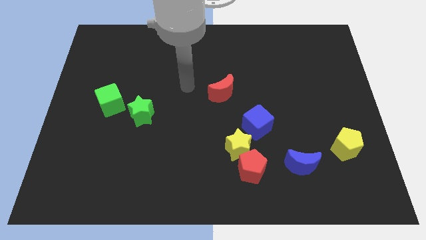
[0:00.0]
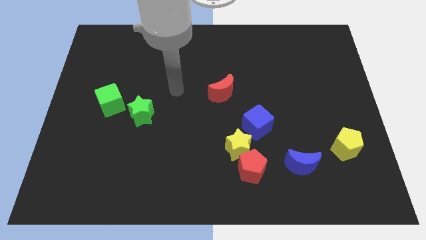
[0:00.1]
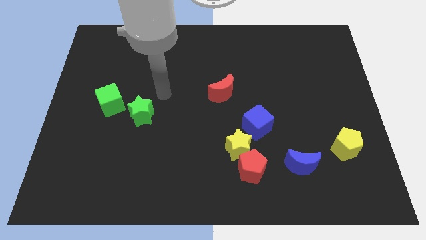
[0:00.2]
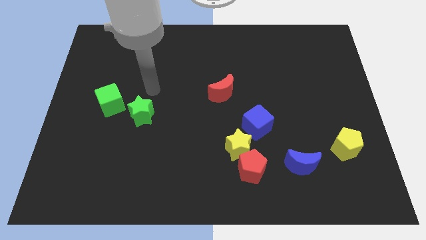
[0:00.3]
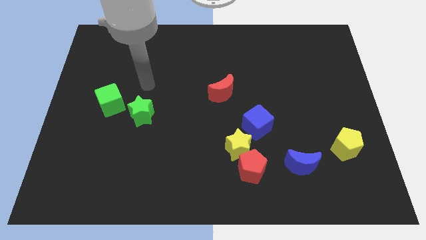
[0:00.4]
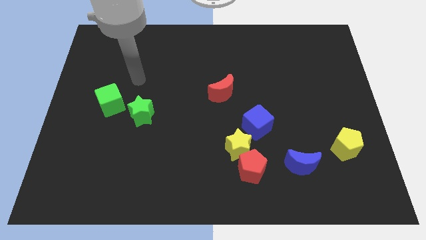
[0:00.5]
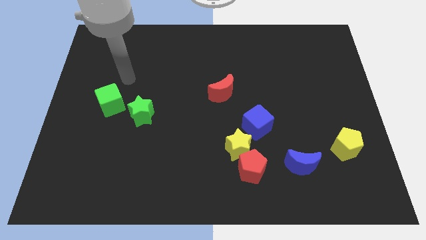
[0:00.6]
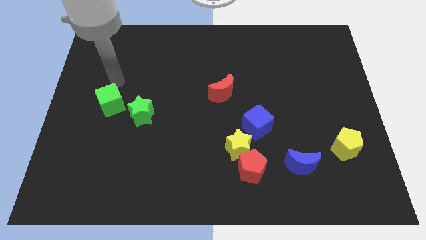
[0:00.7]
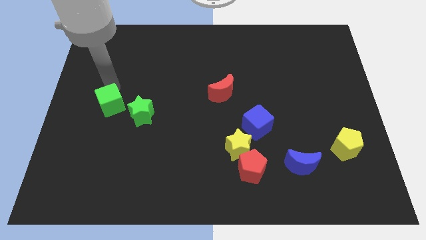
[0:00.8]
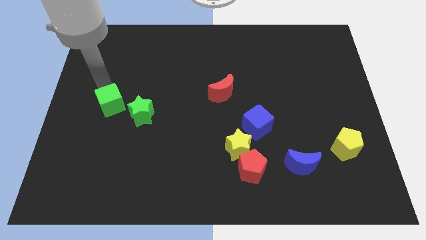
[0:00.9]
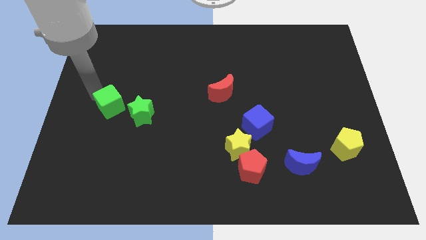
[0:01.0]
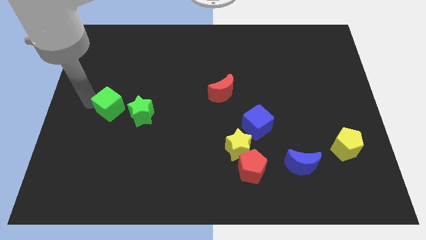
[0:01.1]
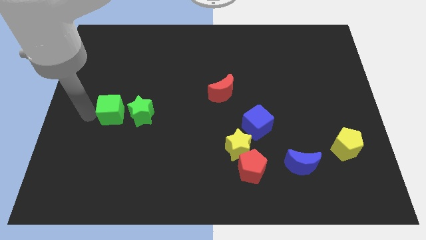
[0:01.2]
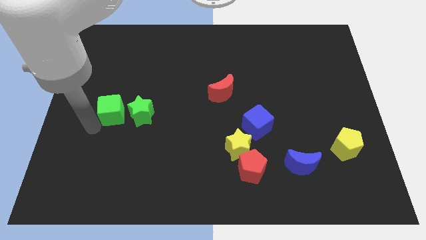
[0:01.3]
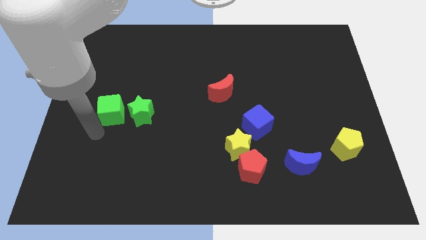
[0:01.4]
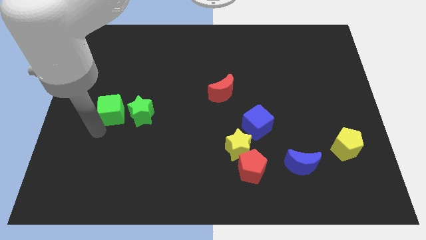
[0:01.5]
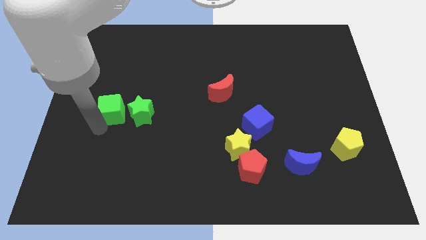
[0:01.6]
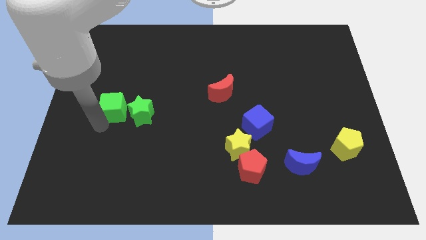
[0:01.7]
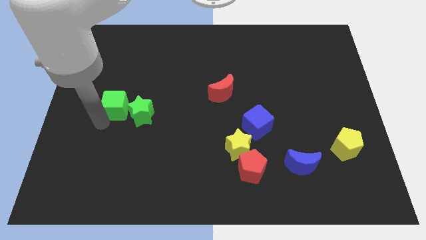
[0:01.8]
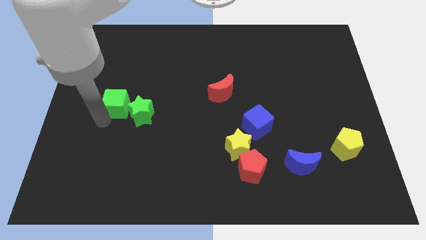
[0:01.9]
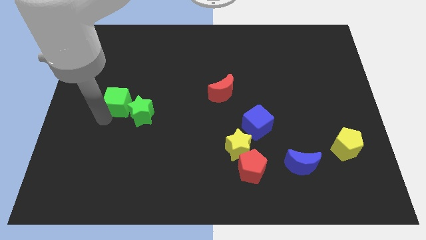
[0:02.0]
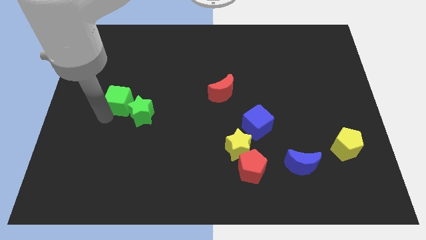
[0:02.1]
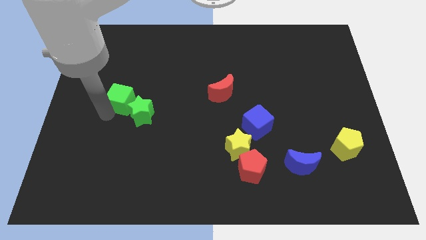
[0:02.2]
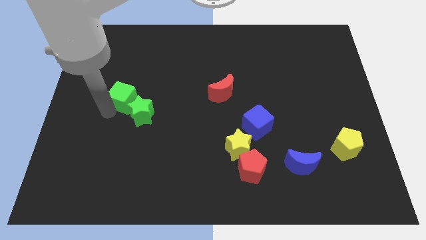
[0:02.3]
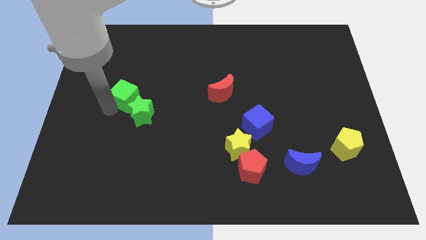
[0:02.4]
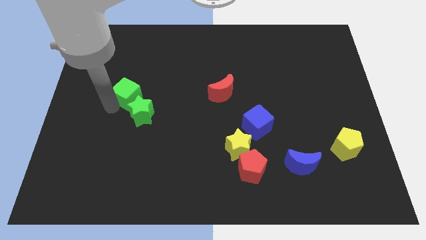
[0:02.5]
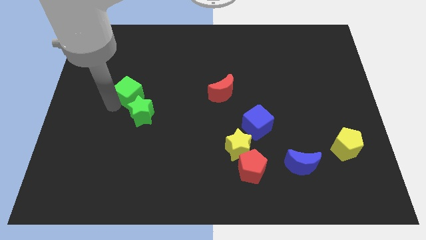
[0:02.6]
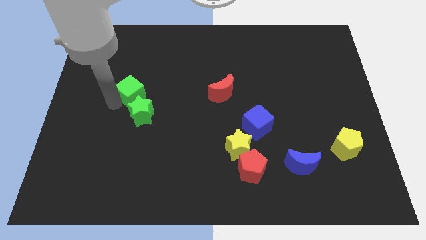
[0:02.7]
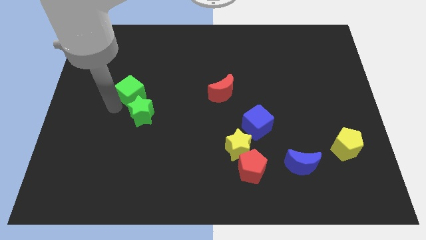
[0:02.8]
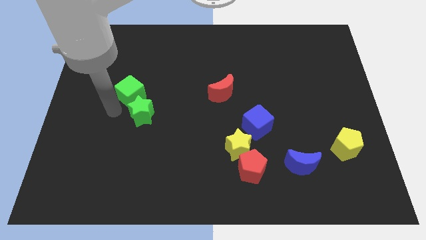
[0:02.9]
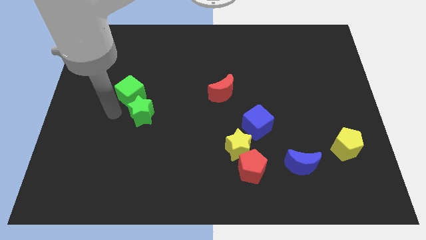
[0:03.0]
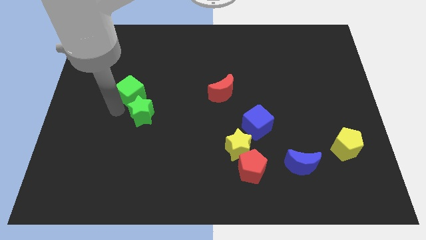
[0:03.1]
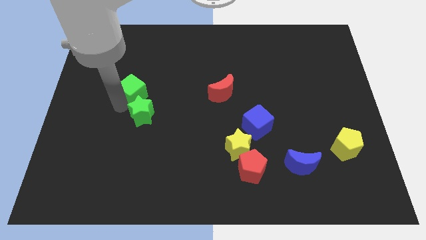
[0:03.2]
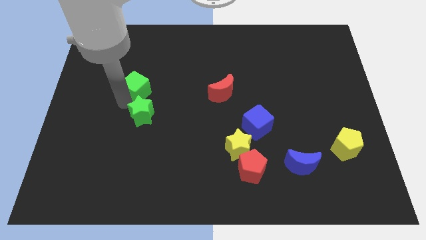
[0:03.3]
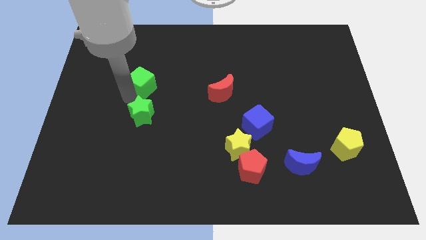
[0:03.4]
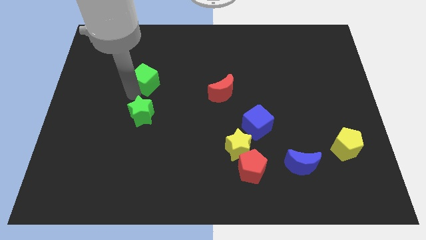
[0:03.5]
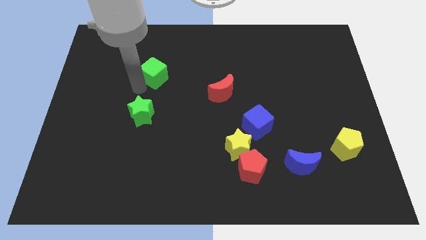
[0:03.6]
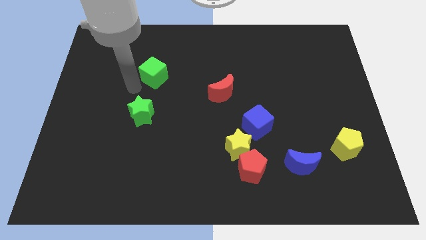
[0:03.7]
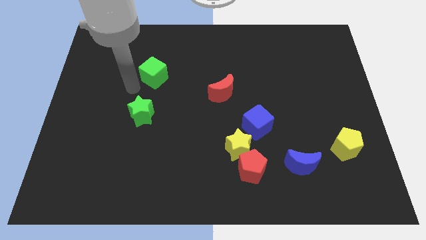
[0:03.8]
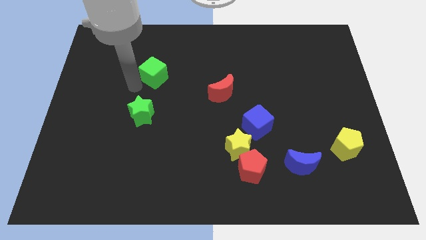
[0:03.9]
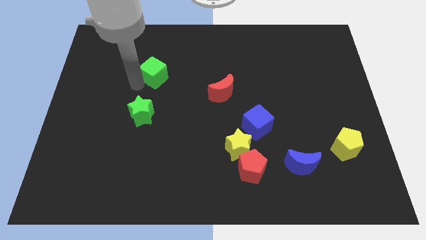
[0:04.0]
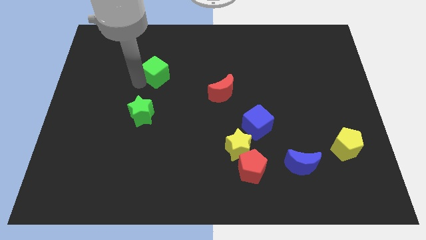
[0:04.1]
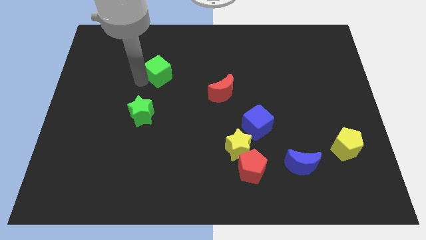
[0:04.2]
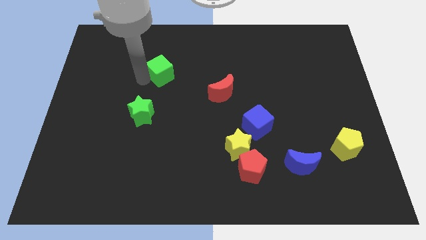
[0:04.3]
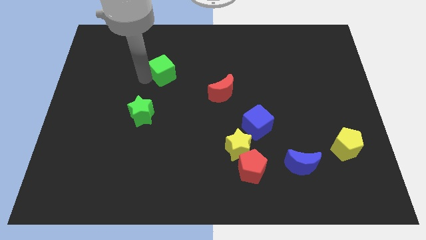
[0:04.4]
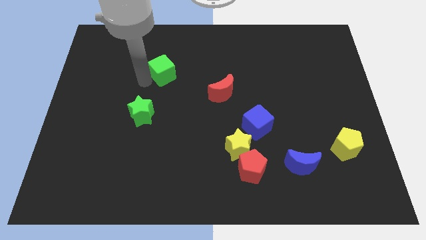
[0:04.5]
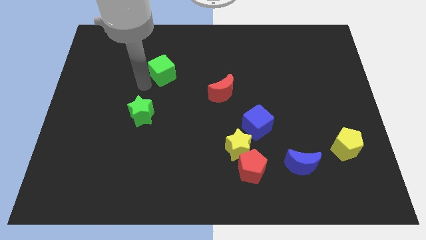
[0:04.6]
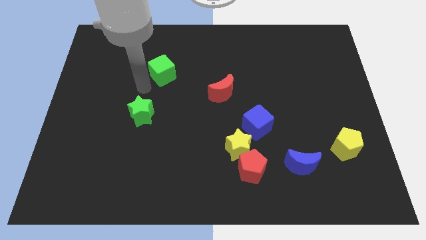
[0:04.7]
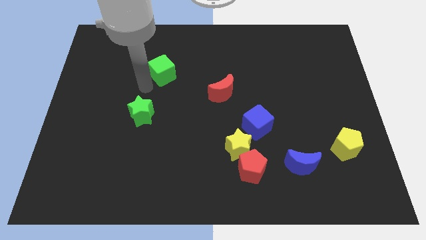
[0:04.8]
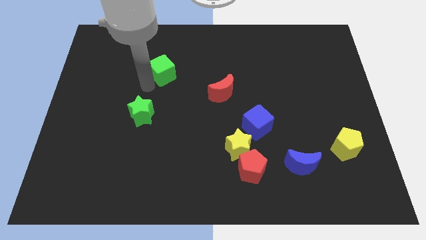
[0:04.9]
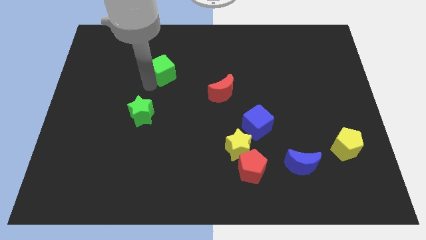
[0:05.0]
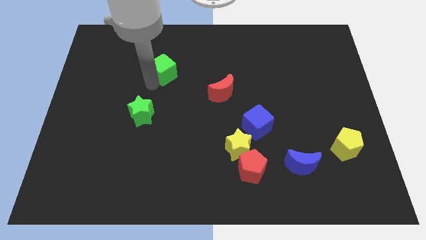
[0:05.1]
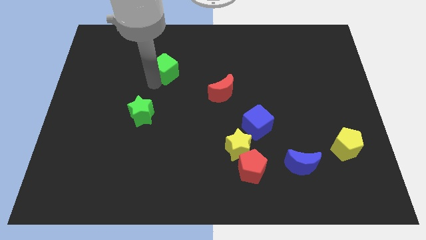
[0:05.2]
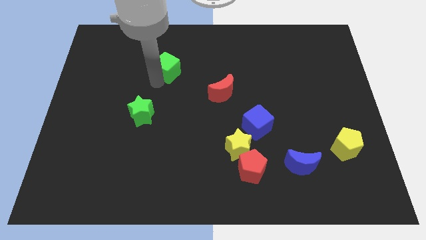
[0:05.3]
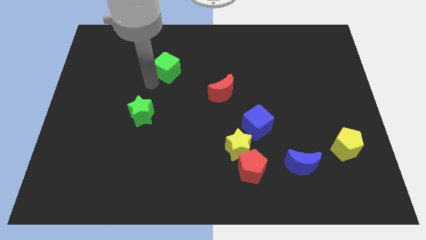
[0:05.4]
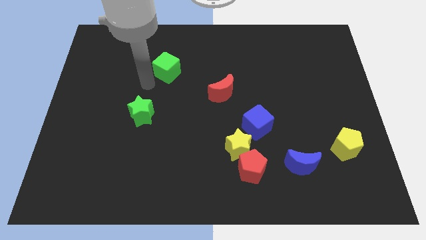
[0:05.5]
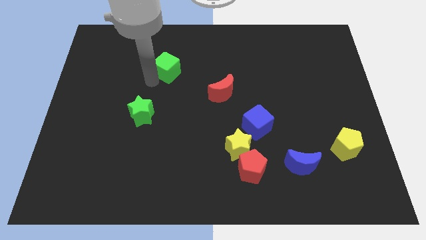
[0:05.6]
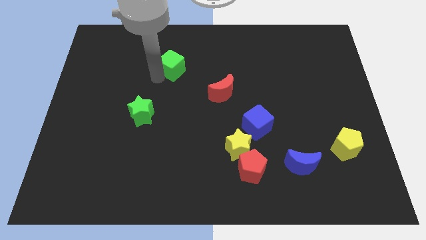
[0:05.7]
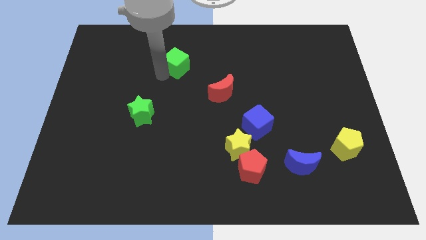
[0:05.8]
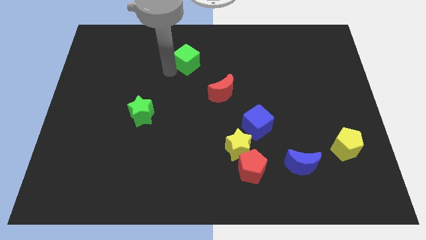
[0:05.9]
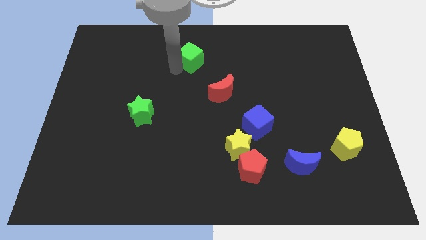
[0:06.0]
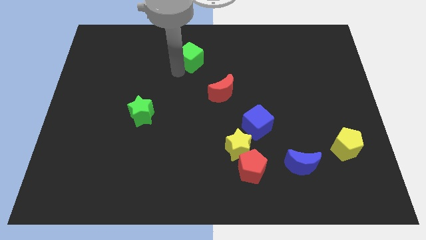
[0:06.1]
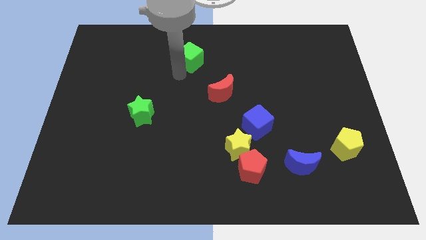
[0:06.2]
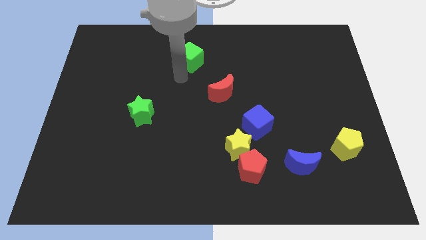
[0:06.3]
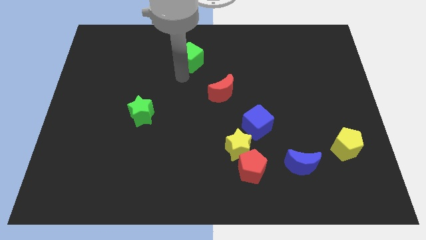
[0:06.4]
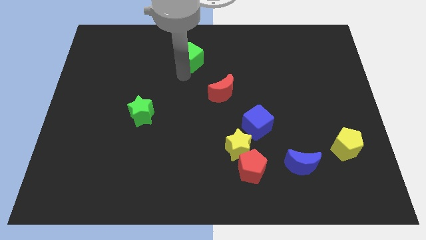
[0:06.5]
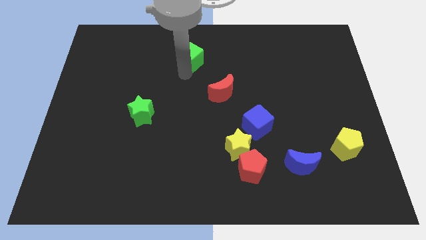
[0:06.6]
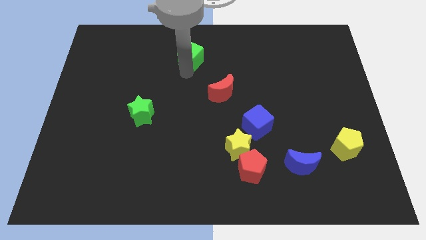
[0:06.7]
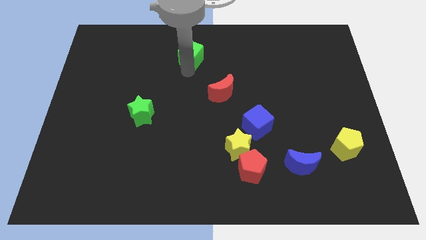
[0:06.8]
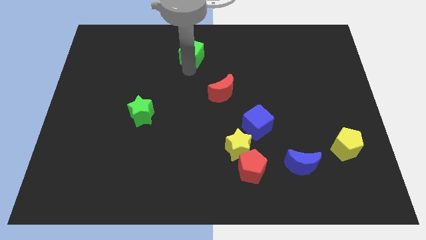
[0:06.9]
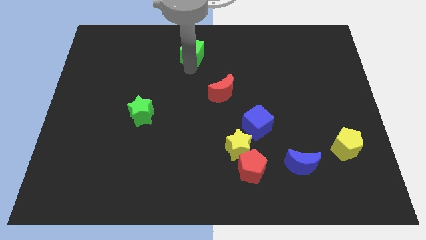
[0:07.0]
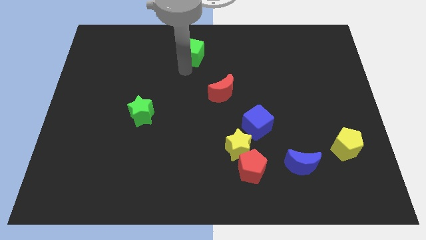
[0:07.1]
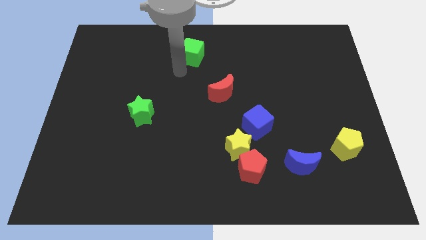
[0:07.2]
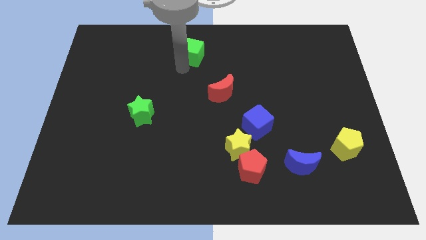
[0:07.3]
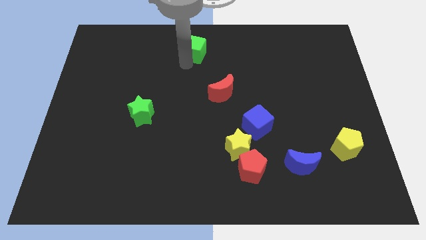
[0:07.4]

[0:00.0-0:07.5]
put the green cube to the top
